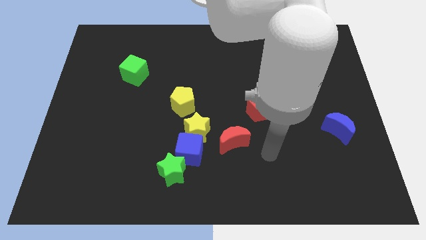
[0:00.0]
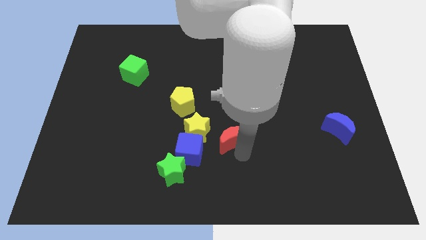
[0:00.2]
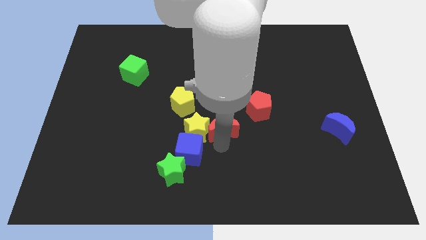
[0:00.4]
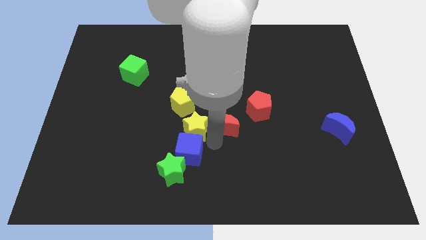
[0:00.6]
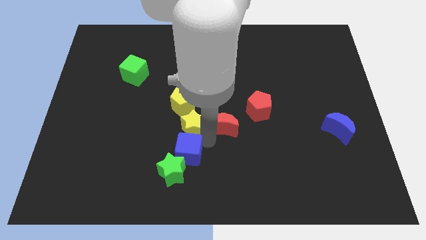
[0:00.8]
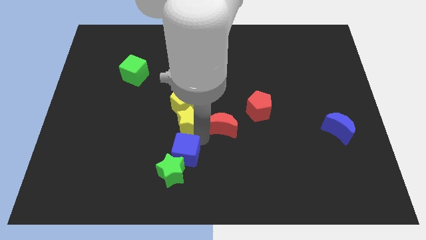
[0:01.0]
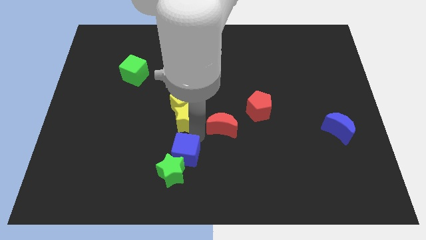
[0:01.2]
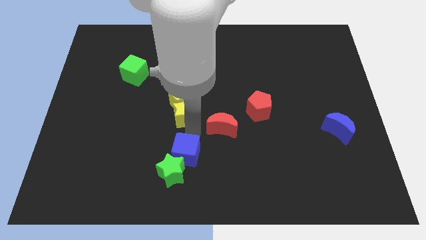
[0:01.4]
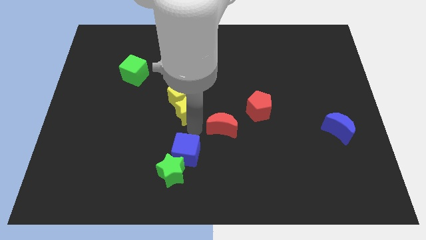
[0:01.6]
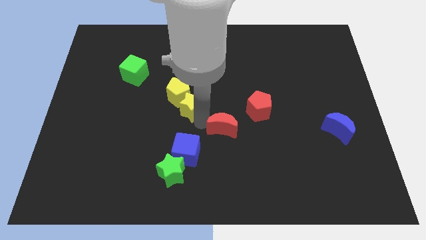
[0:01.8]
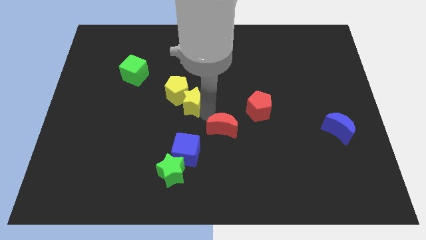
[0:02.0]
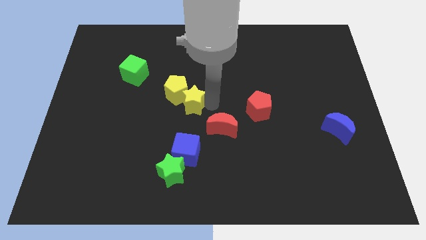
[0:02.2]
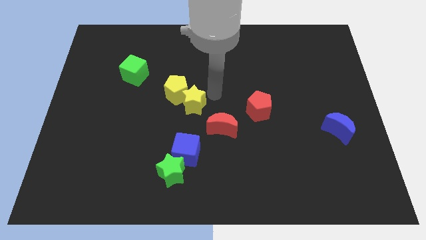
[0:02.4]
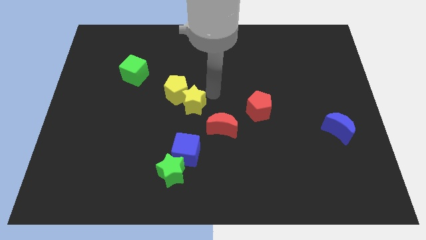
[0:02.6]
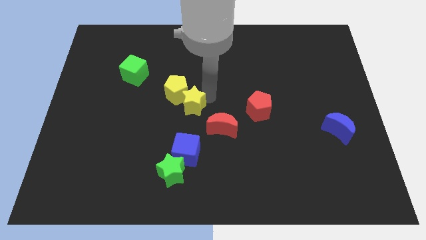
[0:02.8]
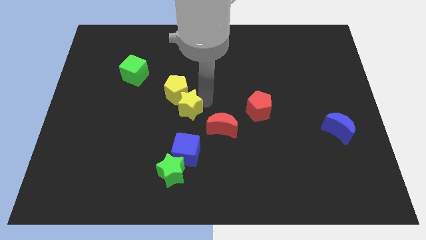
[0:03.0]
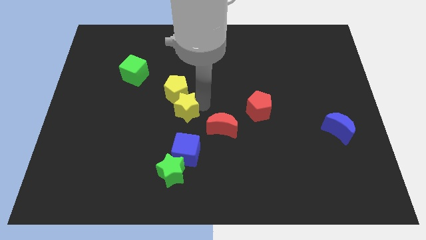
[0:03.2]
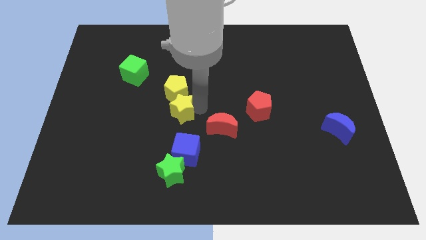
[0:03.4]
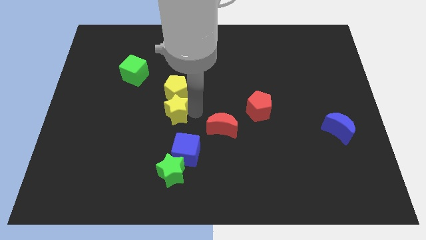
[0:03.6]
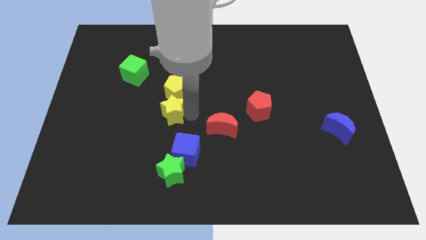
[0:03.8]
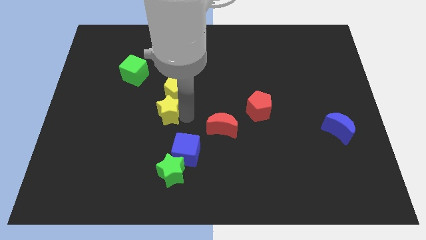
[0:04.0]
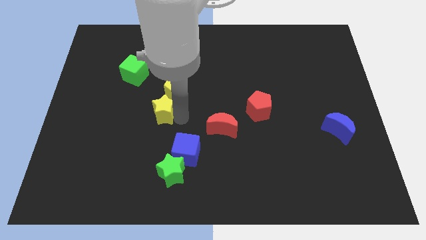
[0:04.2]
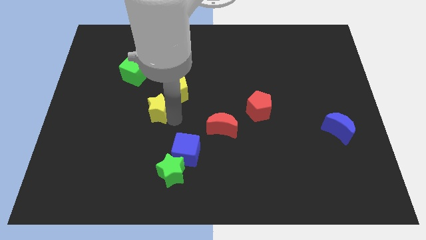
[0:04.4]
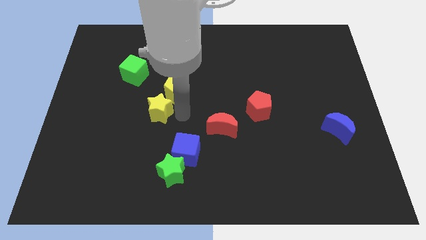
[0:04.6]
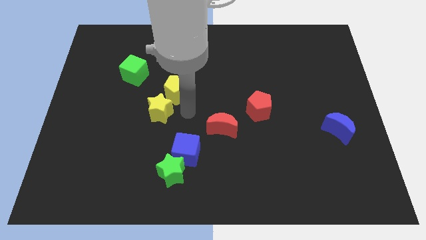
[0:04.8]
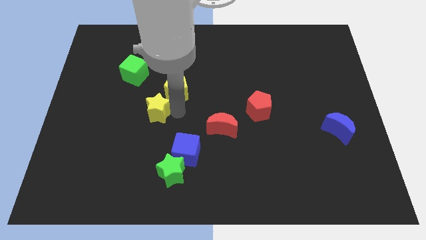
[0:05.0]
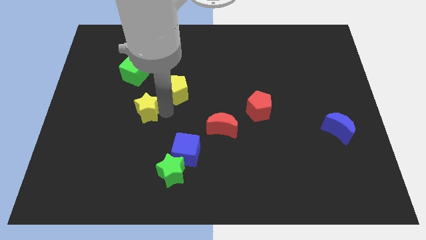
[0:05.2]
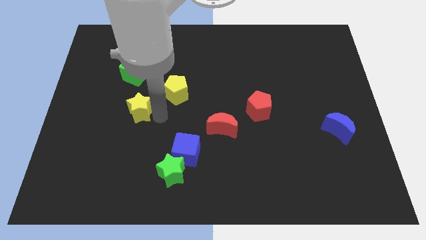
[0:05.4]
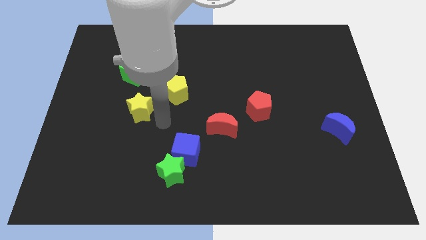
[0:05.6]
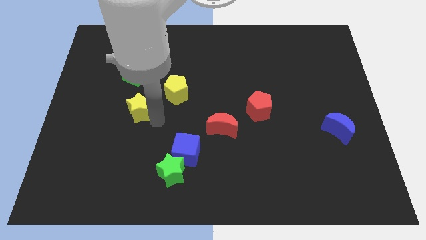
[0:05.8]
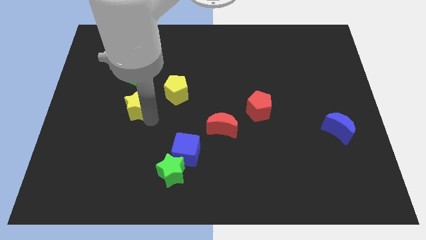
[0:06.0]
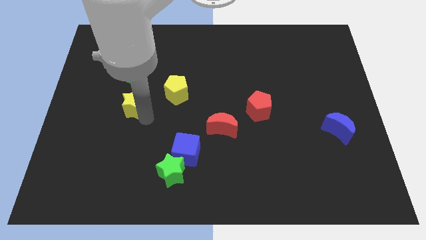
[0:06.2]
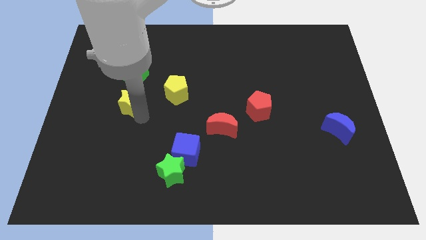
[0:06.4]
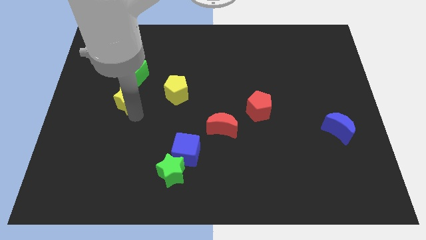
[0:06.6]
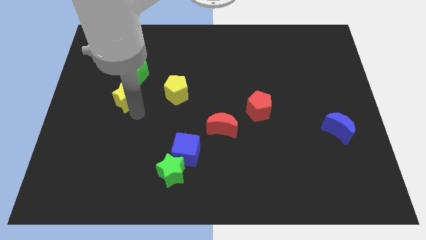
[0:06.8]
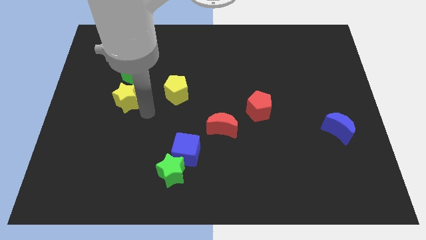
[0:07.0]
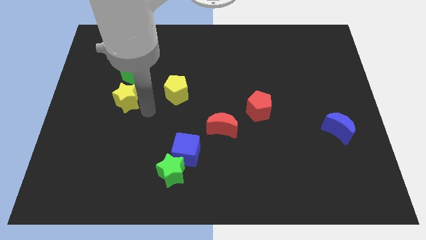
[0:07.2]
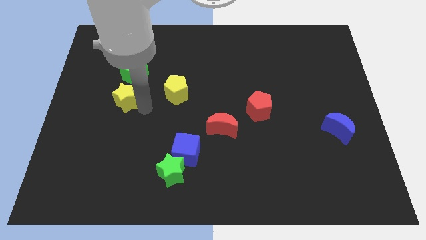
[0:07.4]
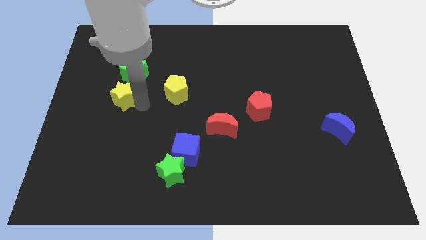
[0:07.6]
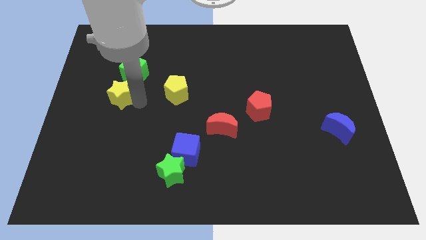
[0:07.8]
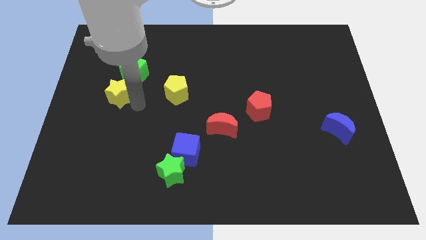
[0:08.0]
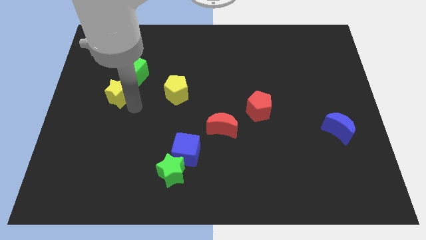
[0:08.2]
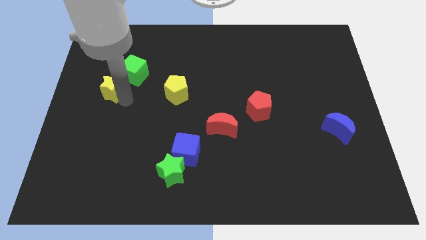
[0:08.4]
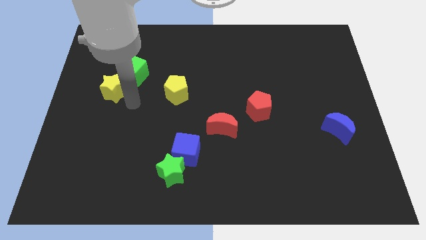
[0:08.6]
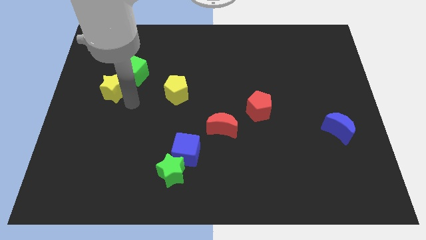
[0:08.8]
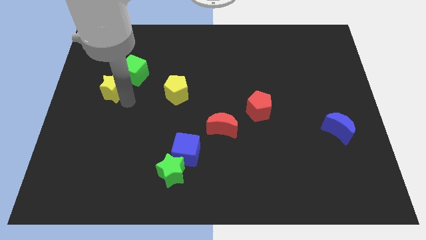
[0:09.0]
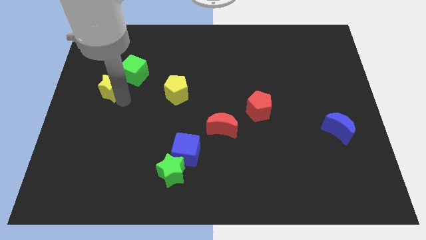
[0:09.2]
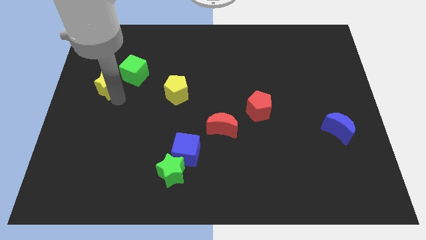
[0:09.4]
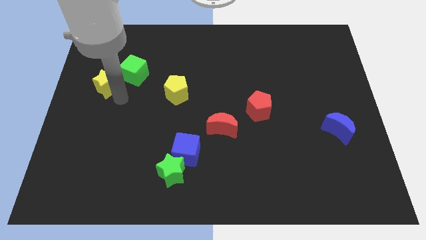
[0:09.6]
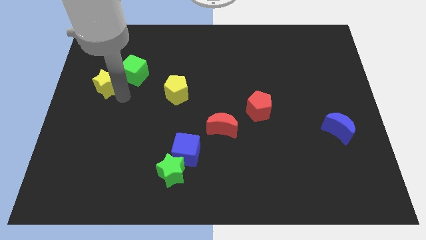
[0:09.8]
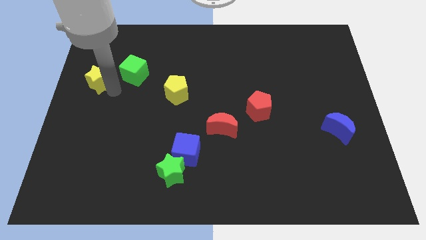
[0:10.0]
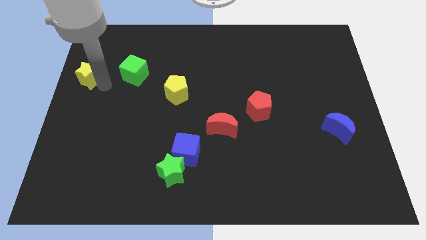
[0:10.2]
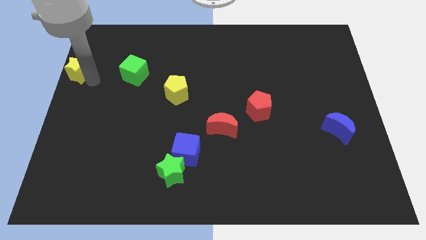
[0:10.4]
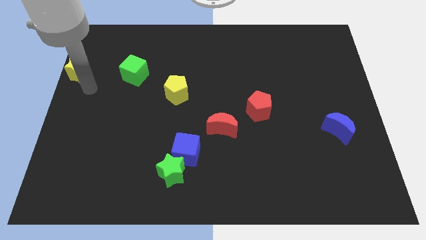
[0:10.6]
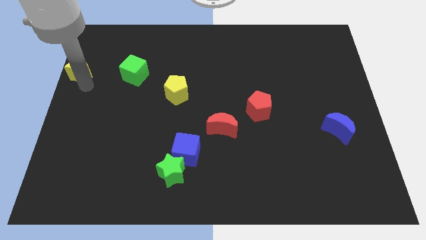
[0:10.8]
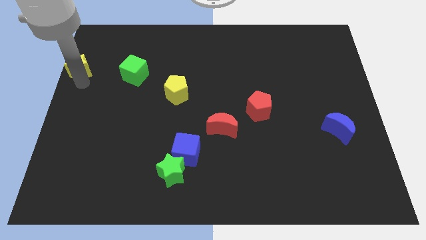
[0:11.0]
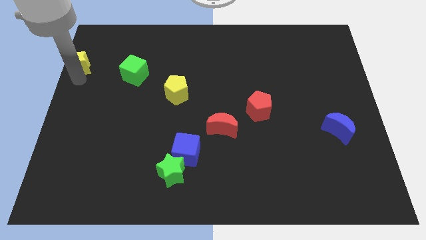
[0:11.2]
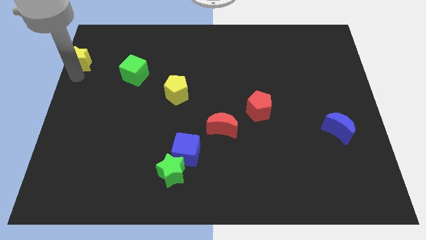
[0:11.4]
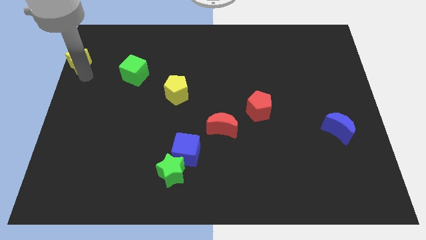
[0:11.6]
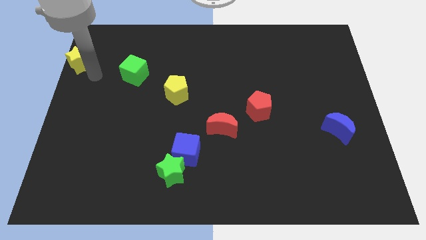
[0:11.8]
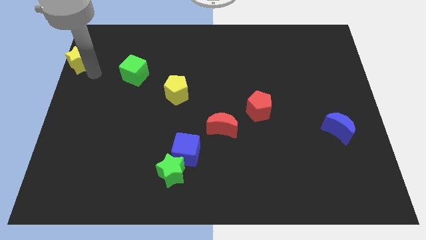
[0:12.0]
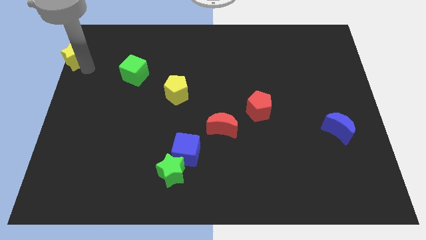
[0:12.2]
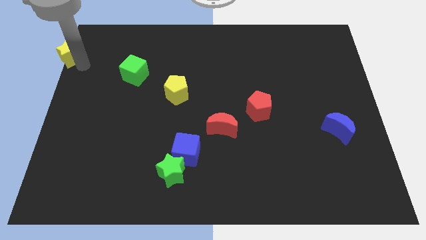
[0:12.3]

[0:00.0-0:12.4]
move the yellow star to the top left corner

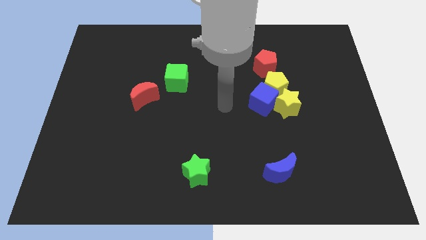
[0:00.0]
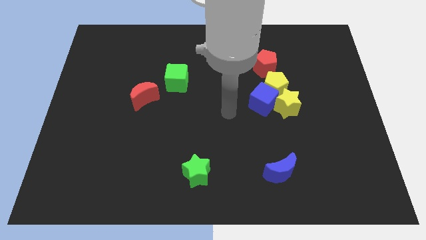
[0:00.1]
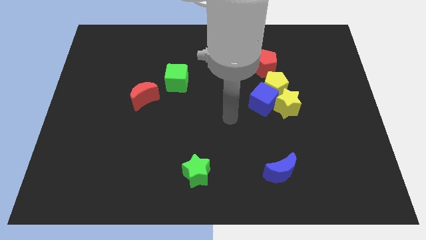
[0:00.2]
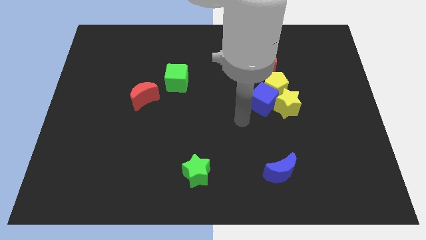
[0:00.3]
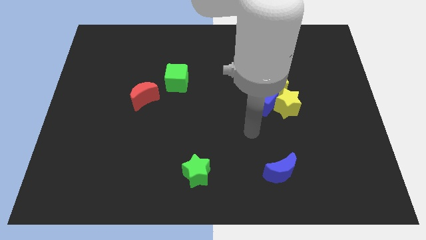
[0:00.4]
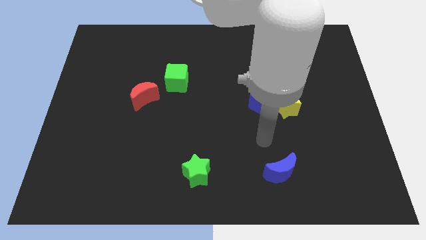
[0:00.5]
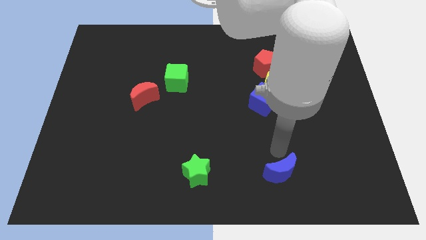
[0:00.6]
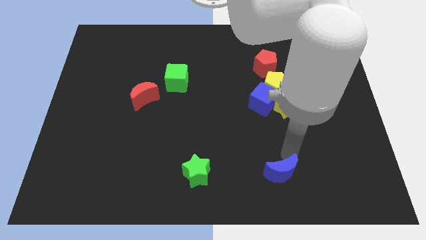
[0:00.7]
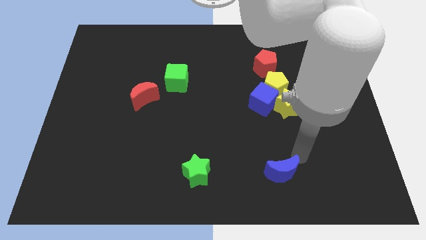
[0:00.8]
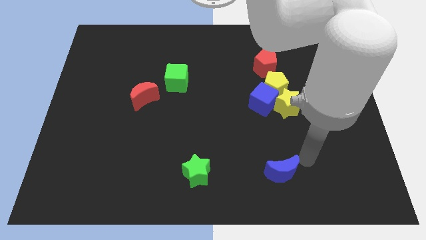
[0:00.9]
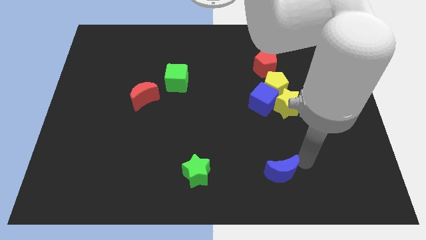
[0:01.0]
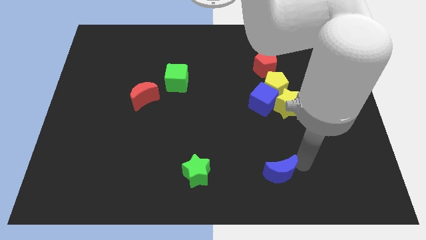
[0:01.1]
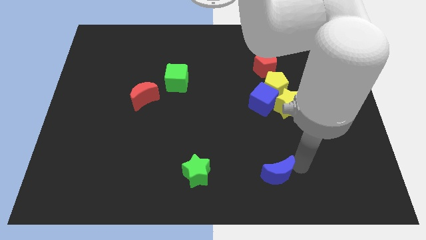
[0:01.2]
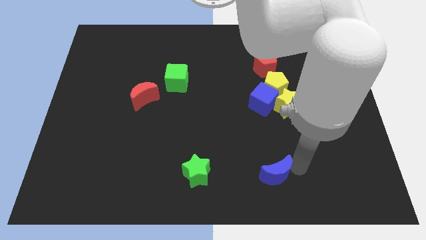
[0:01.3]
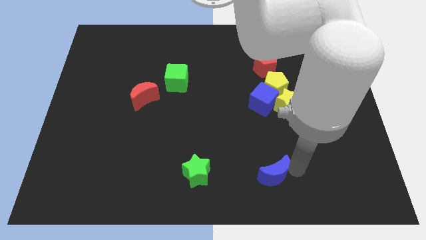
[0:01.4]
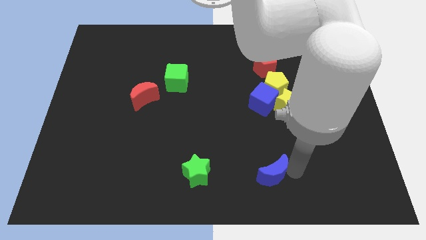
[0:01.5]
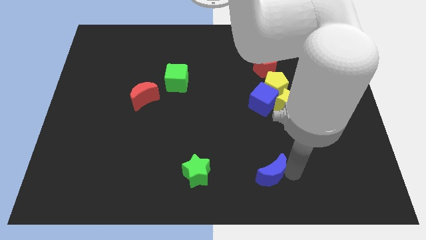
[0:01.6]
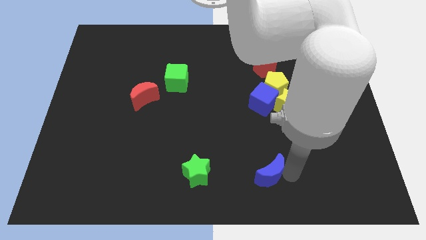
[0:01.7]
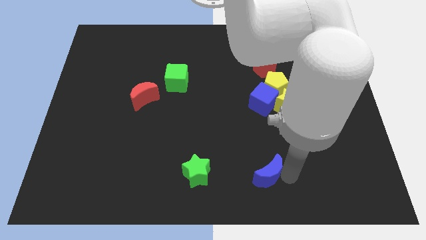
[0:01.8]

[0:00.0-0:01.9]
move the blue moon to the bottom side
